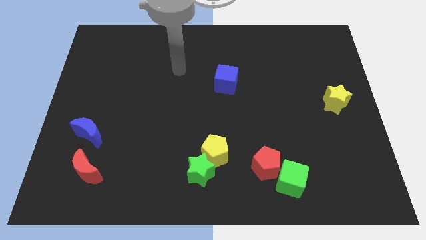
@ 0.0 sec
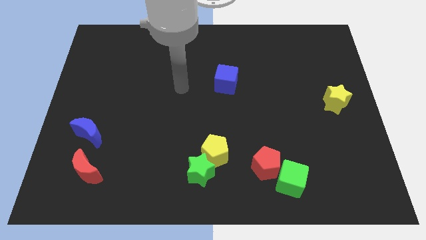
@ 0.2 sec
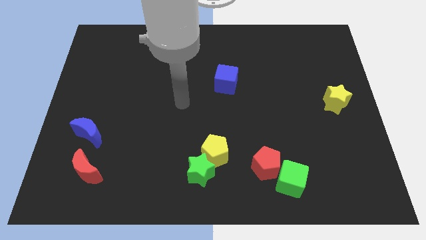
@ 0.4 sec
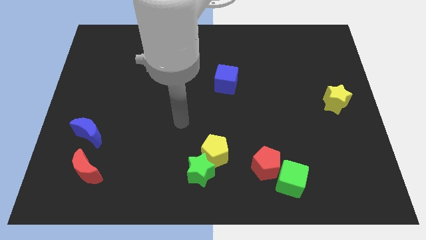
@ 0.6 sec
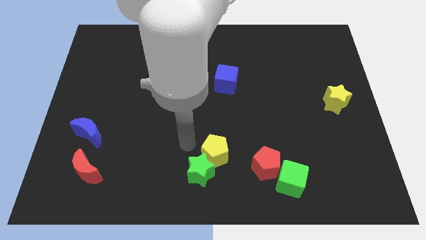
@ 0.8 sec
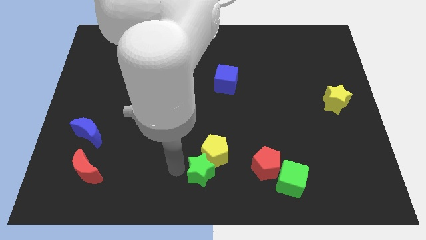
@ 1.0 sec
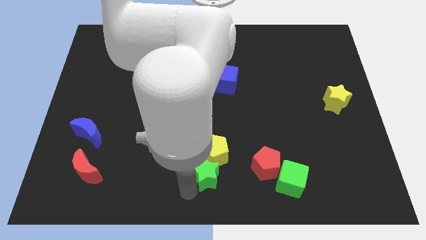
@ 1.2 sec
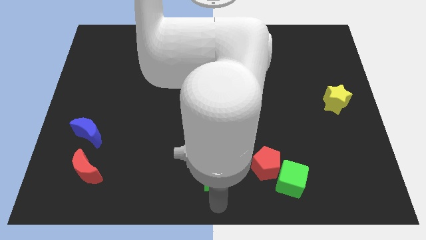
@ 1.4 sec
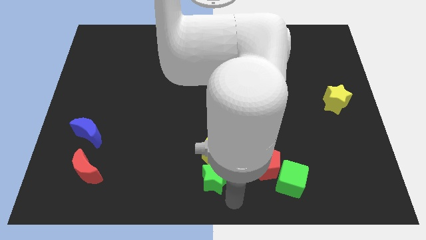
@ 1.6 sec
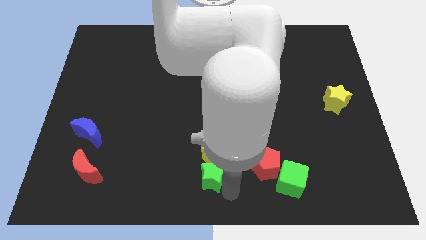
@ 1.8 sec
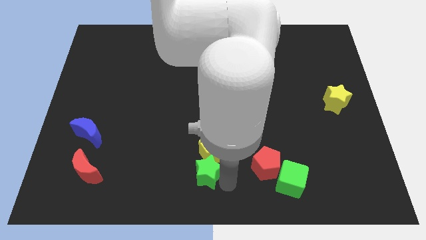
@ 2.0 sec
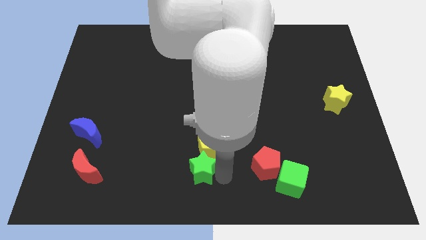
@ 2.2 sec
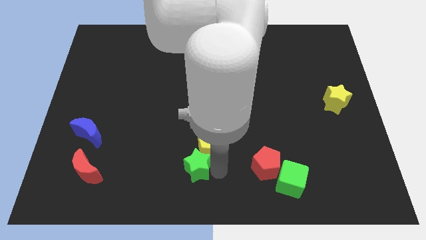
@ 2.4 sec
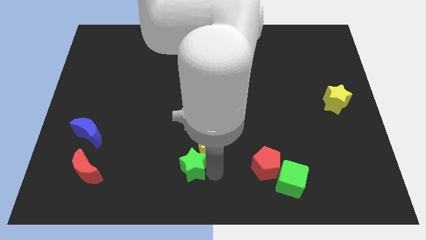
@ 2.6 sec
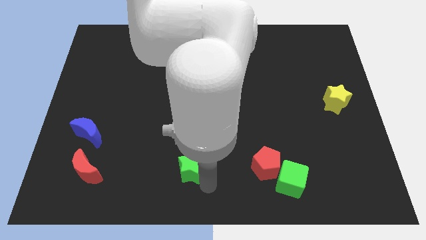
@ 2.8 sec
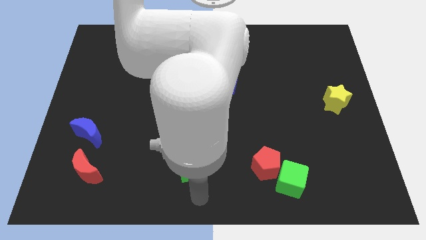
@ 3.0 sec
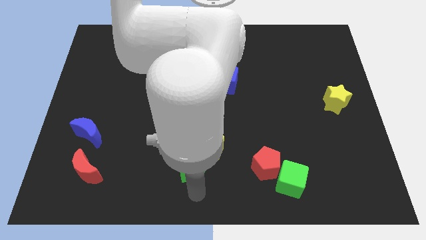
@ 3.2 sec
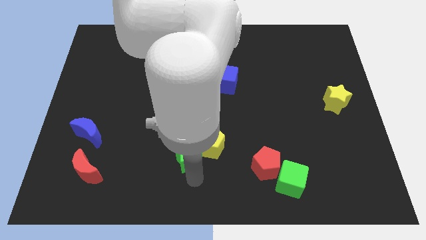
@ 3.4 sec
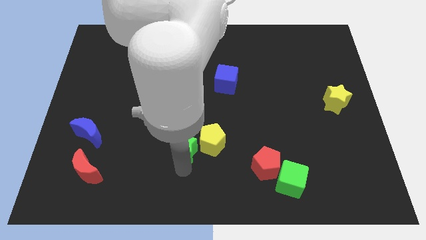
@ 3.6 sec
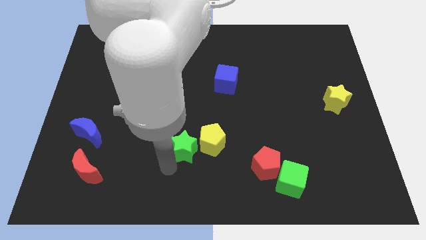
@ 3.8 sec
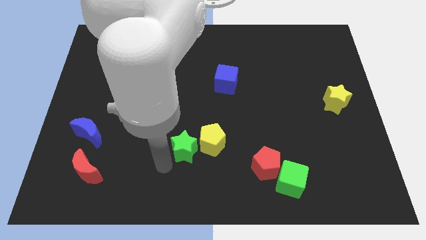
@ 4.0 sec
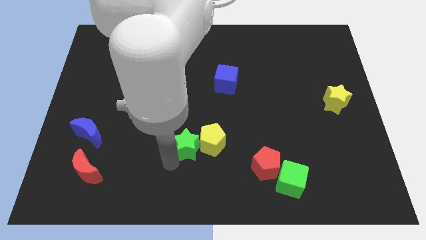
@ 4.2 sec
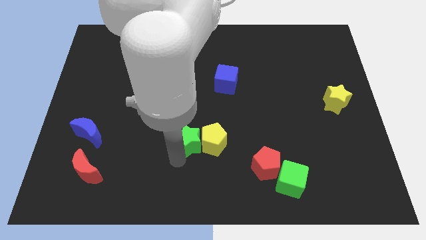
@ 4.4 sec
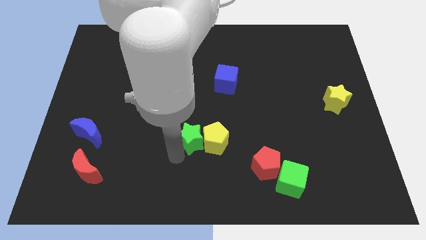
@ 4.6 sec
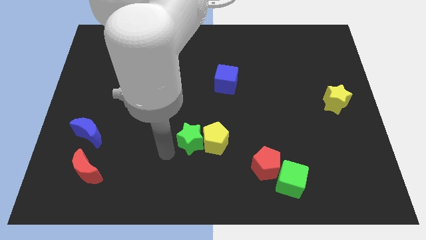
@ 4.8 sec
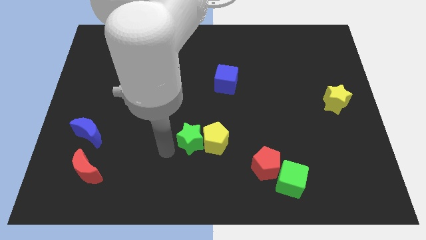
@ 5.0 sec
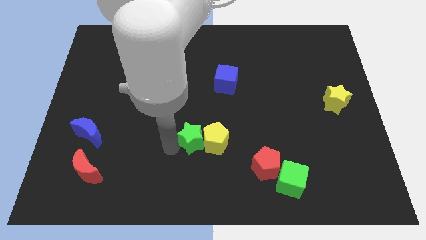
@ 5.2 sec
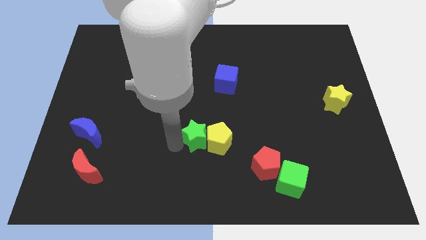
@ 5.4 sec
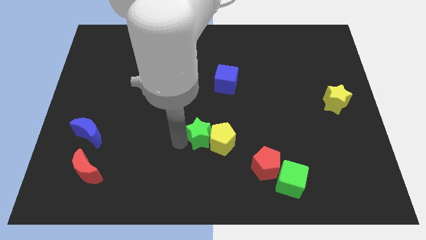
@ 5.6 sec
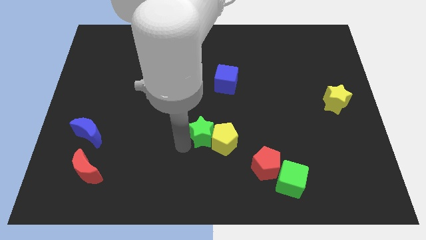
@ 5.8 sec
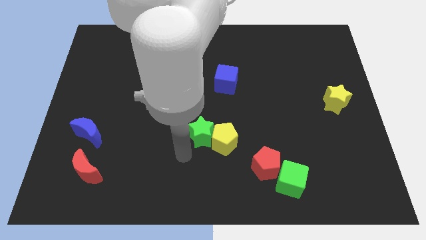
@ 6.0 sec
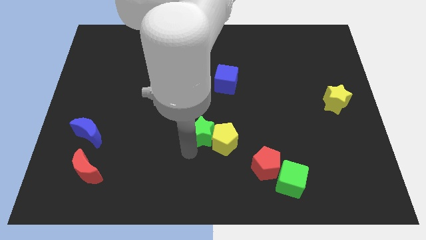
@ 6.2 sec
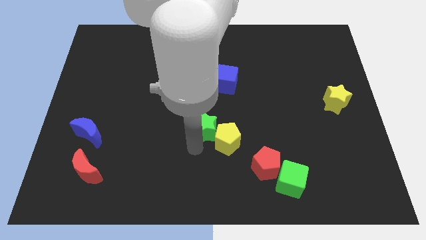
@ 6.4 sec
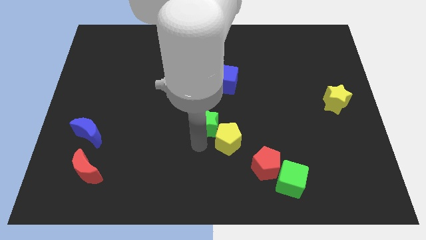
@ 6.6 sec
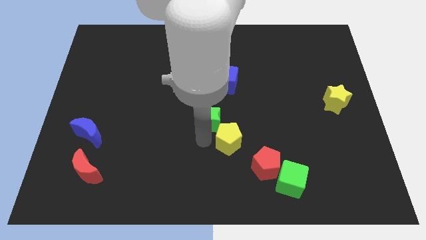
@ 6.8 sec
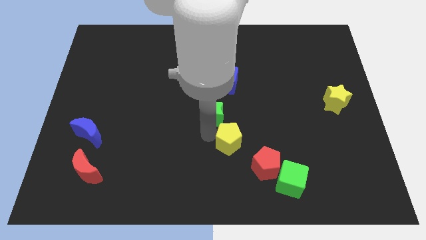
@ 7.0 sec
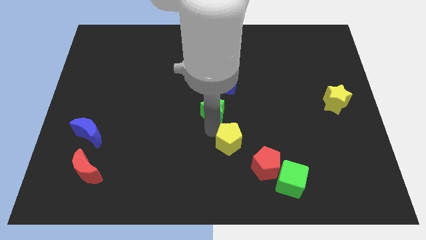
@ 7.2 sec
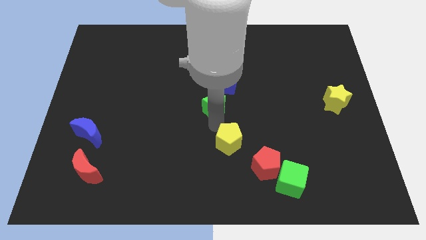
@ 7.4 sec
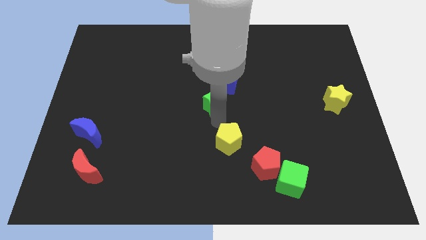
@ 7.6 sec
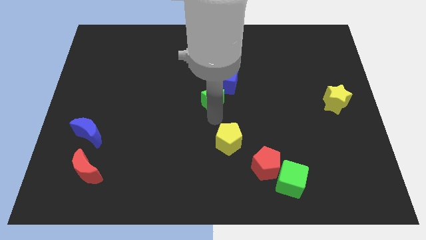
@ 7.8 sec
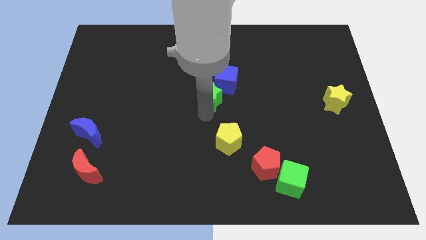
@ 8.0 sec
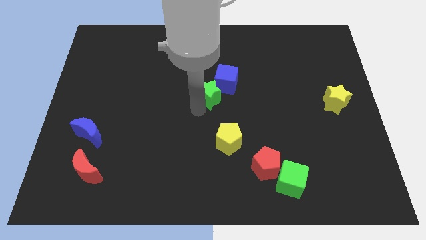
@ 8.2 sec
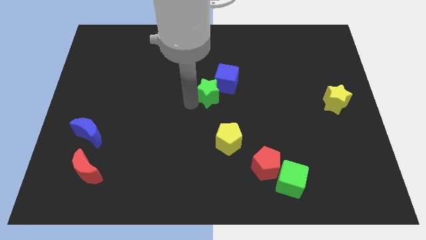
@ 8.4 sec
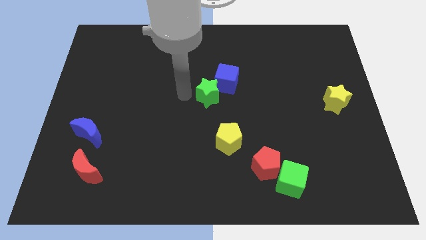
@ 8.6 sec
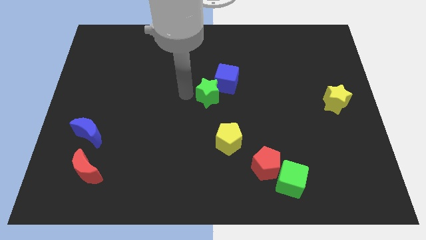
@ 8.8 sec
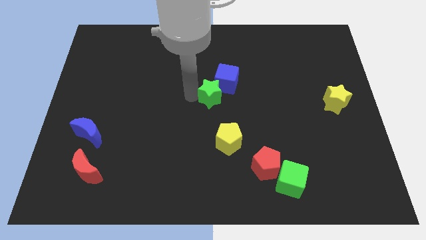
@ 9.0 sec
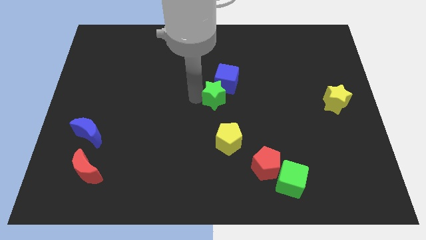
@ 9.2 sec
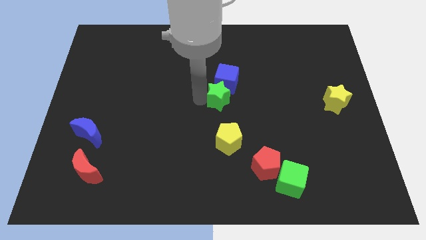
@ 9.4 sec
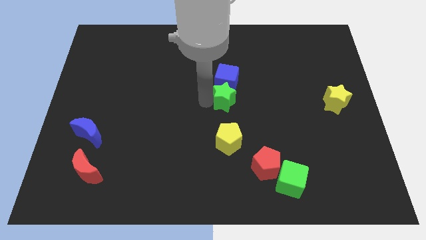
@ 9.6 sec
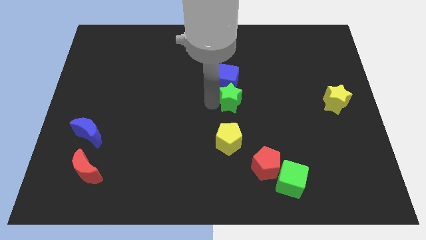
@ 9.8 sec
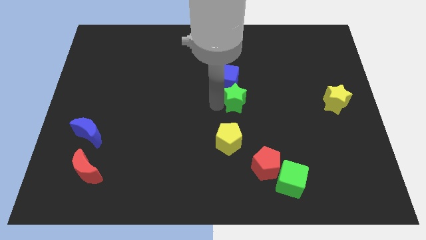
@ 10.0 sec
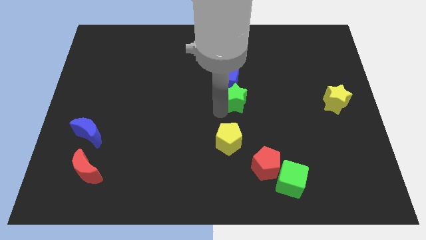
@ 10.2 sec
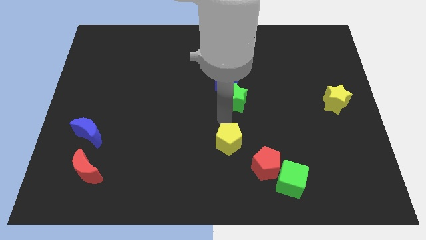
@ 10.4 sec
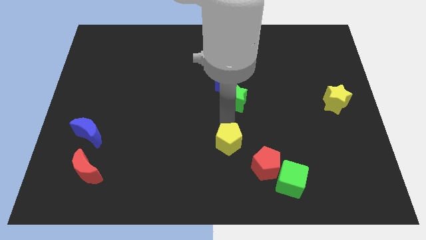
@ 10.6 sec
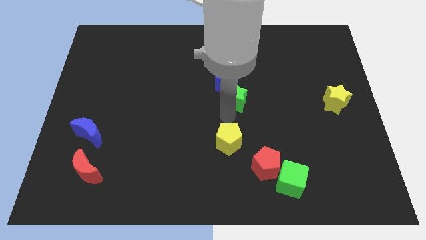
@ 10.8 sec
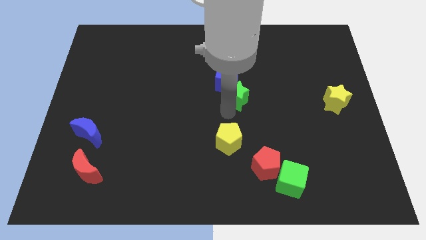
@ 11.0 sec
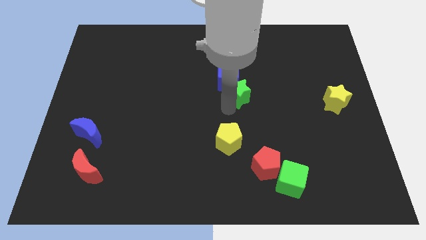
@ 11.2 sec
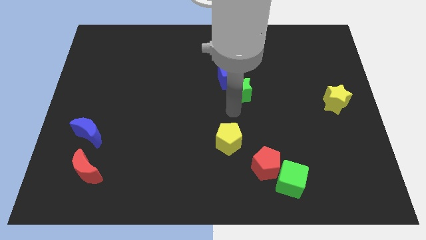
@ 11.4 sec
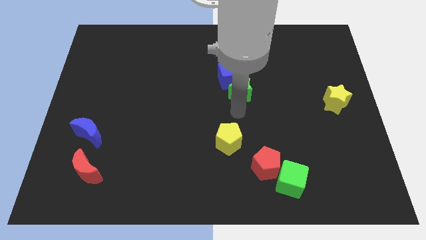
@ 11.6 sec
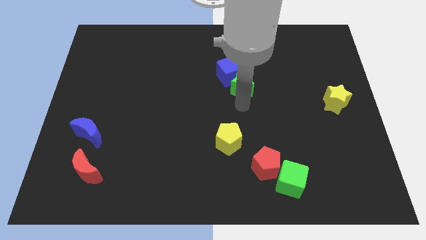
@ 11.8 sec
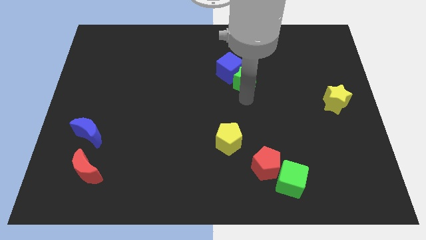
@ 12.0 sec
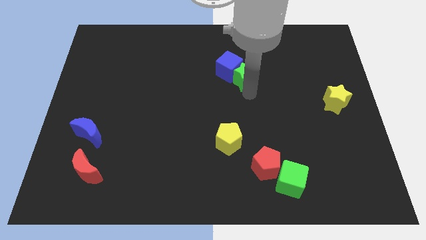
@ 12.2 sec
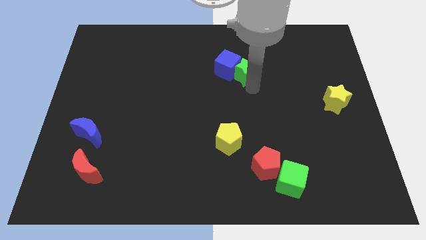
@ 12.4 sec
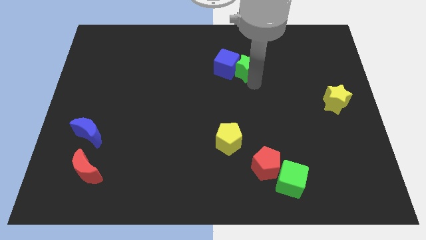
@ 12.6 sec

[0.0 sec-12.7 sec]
slide the green star to the top right side of the blue cube

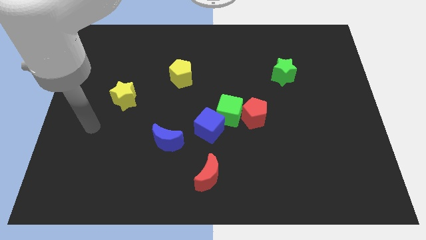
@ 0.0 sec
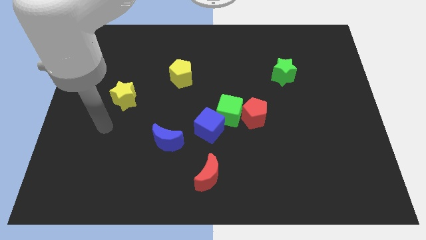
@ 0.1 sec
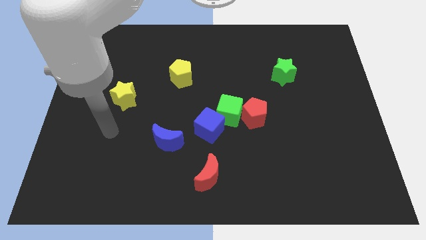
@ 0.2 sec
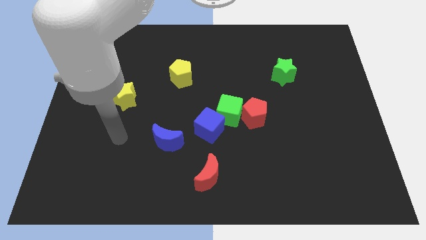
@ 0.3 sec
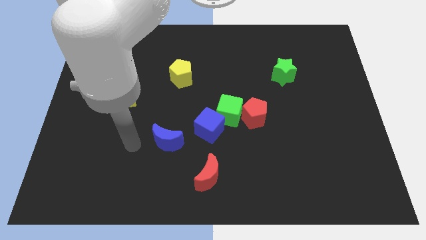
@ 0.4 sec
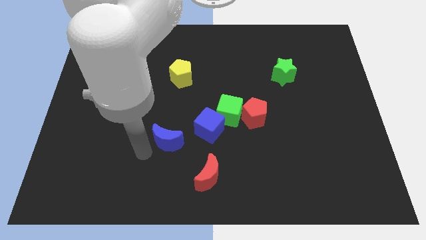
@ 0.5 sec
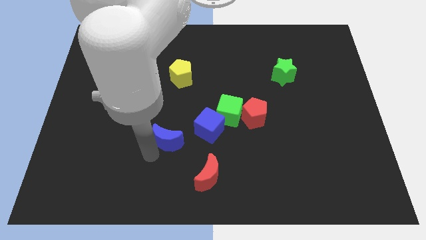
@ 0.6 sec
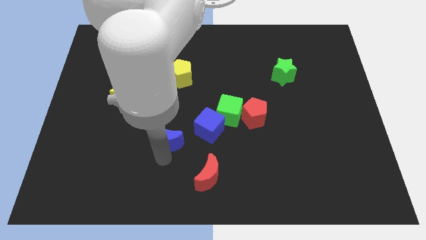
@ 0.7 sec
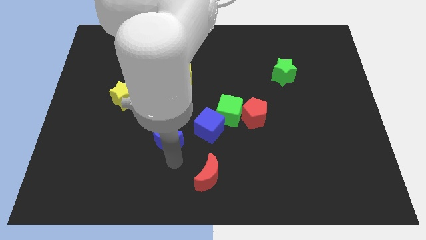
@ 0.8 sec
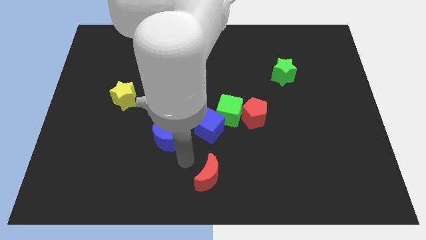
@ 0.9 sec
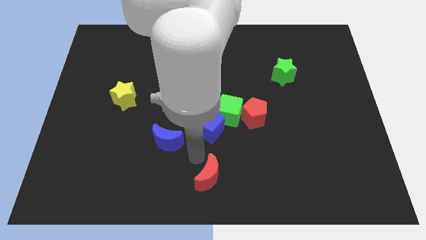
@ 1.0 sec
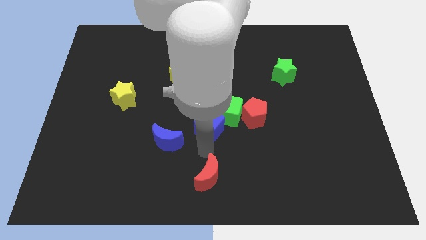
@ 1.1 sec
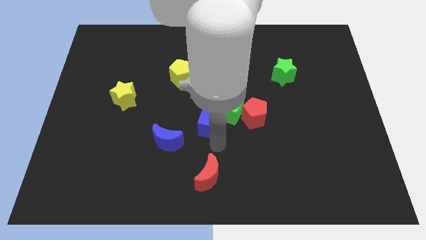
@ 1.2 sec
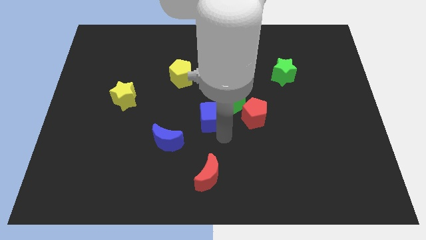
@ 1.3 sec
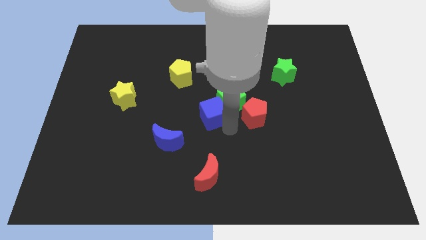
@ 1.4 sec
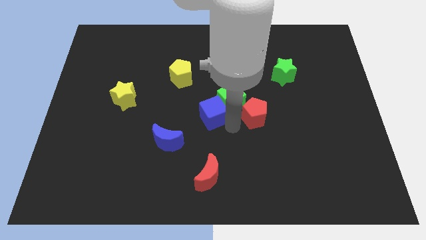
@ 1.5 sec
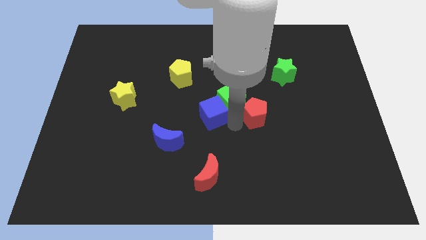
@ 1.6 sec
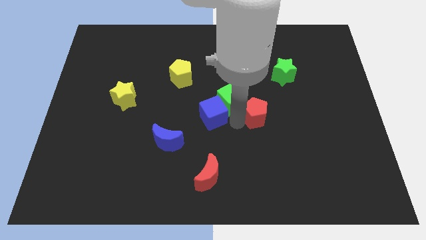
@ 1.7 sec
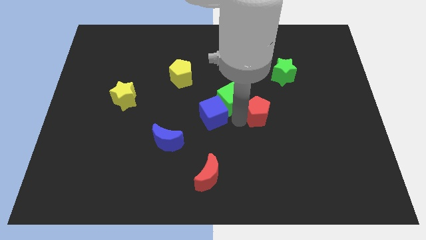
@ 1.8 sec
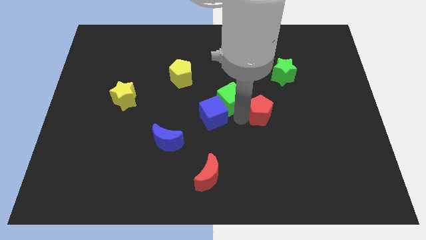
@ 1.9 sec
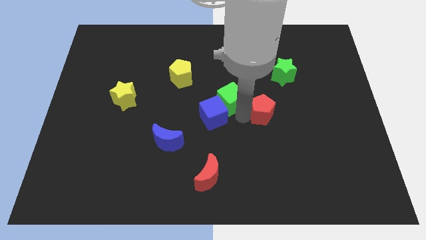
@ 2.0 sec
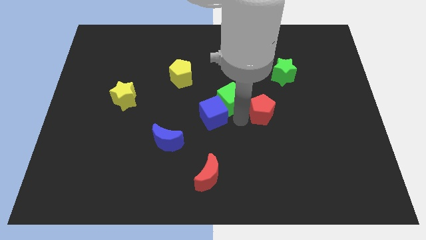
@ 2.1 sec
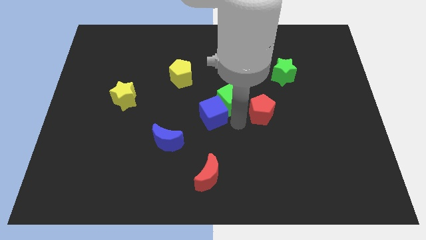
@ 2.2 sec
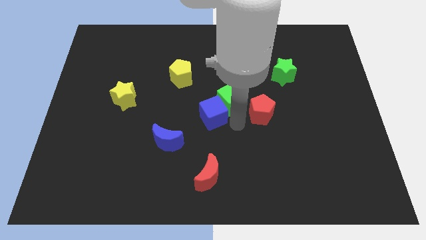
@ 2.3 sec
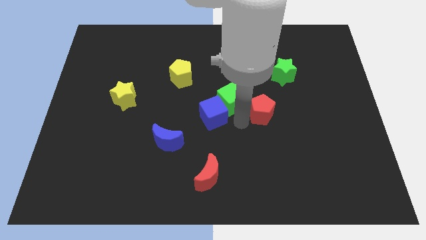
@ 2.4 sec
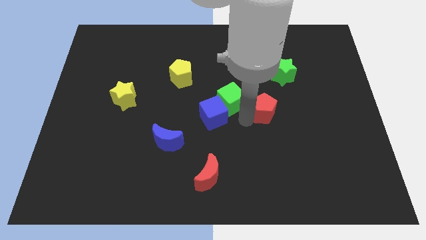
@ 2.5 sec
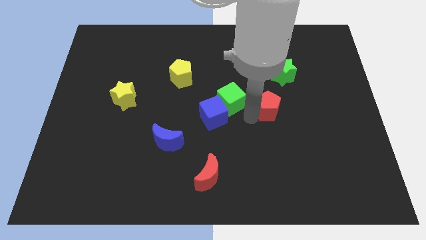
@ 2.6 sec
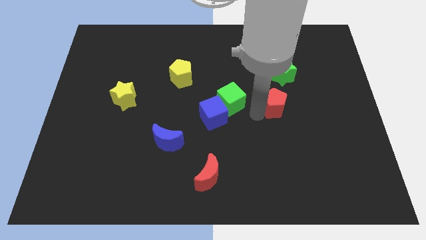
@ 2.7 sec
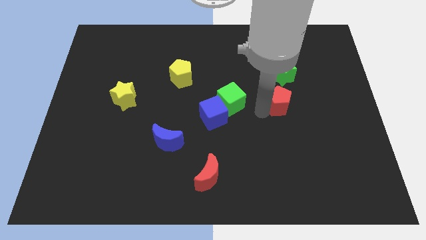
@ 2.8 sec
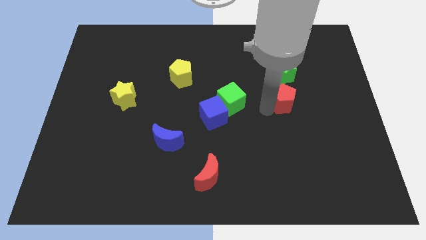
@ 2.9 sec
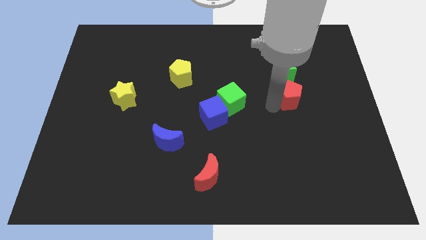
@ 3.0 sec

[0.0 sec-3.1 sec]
push the red pentagon to the bottom right side of the green star
